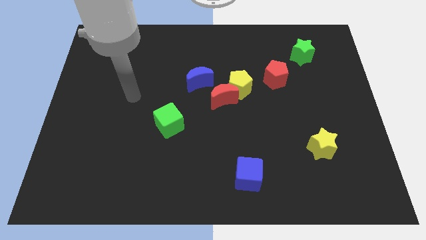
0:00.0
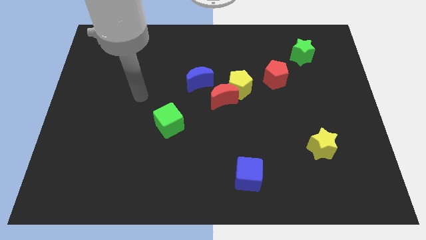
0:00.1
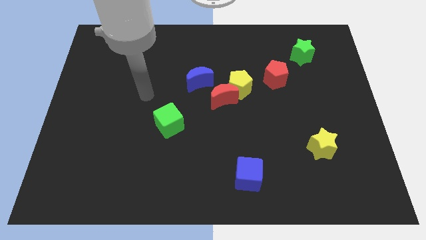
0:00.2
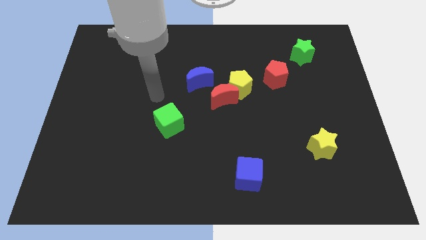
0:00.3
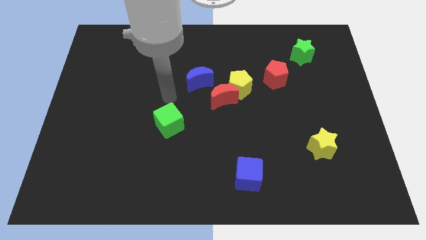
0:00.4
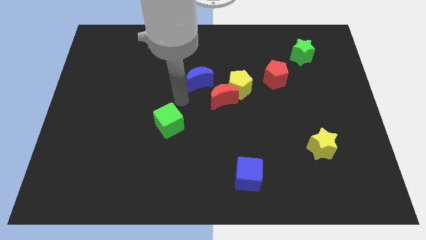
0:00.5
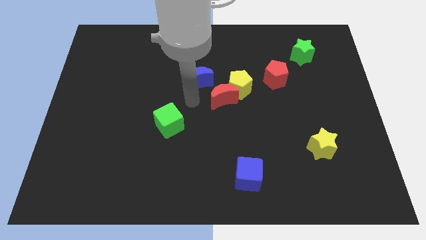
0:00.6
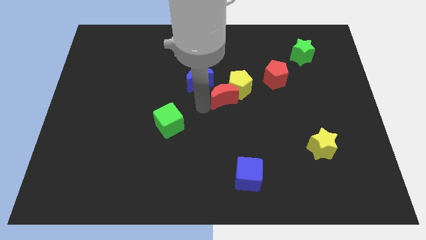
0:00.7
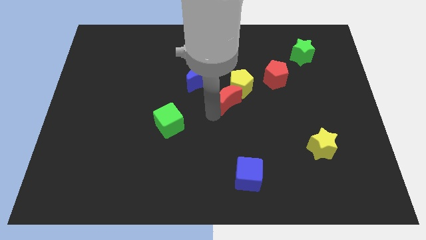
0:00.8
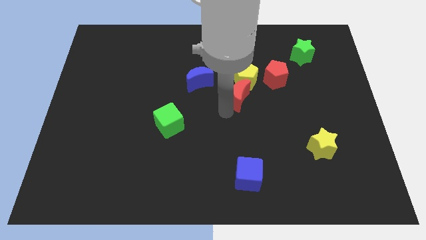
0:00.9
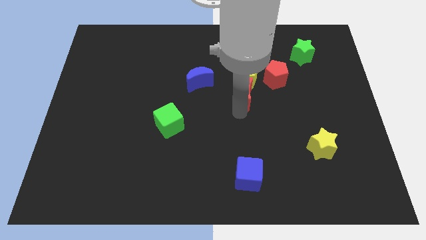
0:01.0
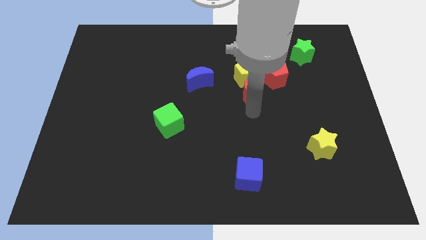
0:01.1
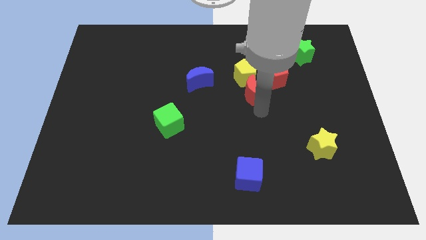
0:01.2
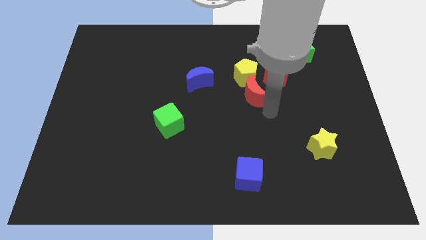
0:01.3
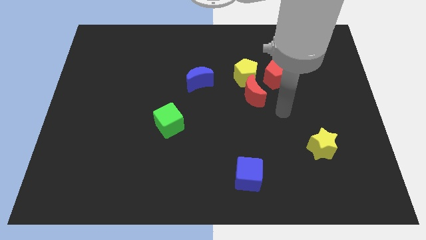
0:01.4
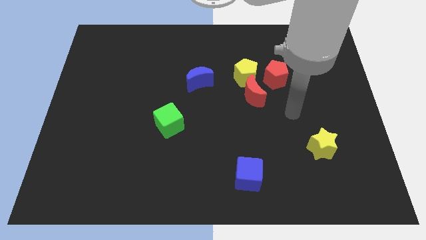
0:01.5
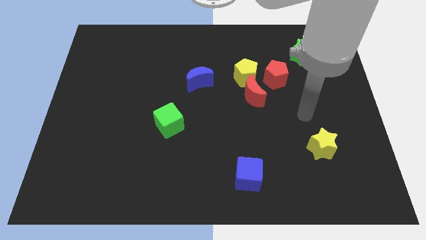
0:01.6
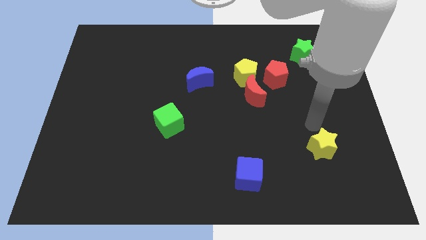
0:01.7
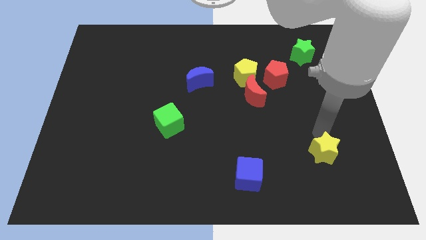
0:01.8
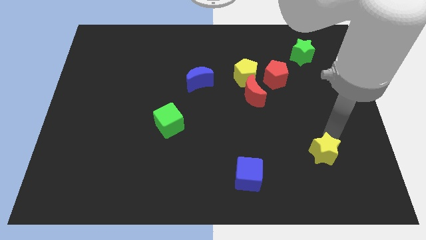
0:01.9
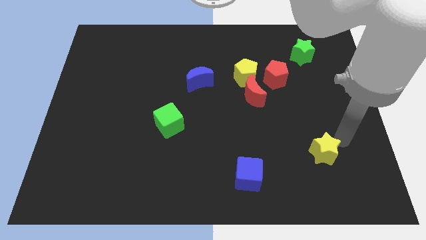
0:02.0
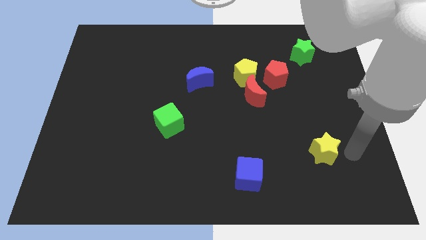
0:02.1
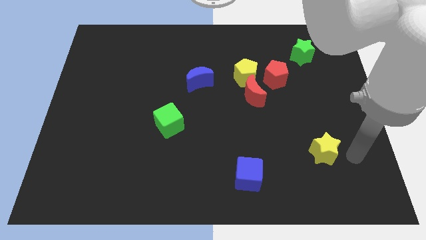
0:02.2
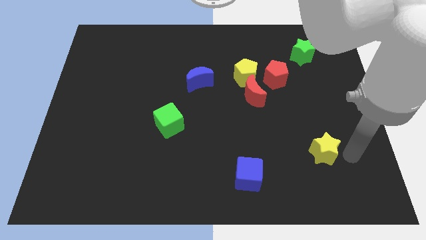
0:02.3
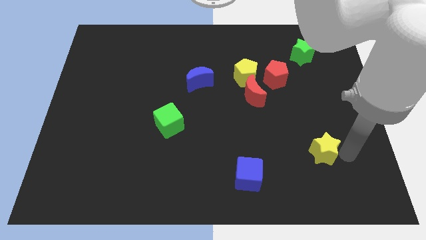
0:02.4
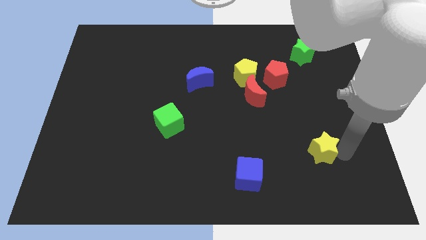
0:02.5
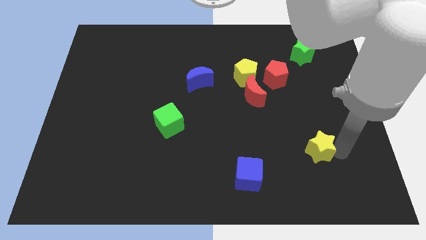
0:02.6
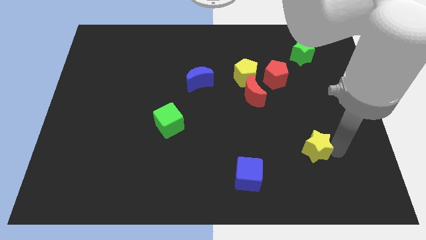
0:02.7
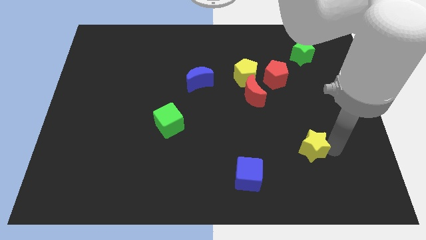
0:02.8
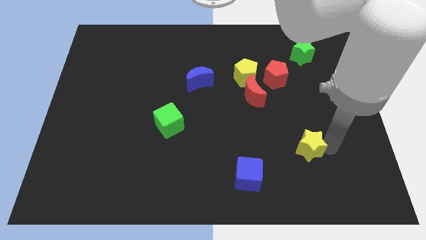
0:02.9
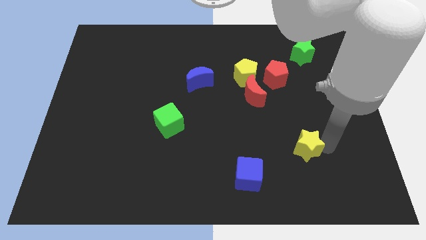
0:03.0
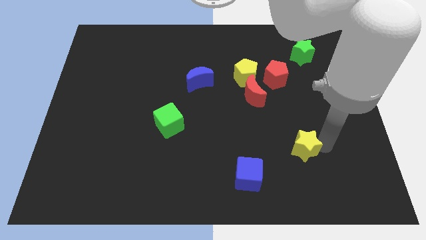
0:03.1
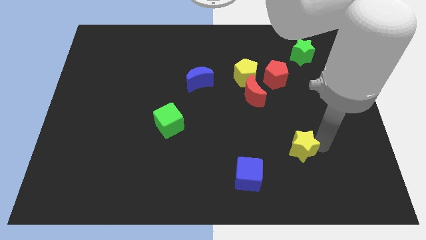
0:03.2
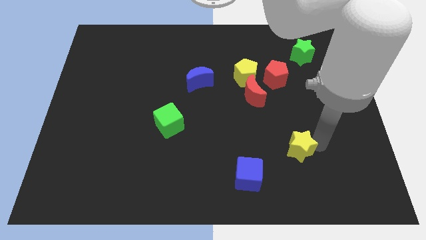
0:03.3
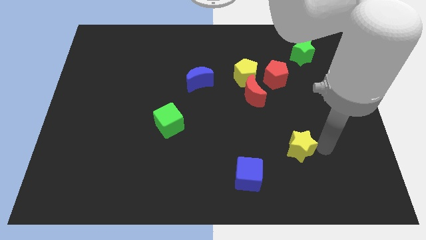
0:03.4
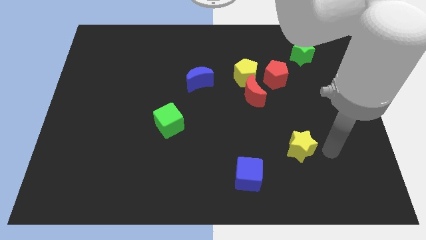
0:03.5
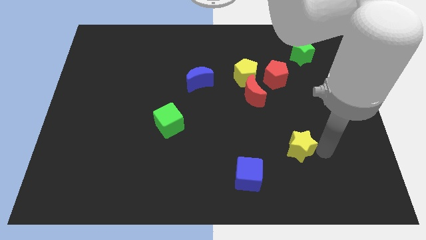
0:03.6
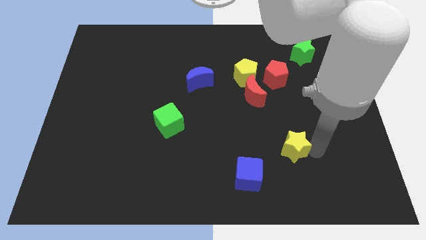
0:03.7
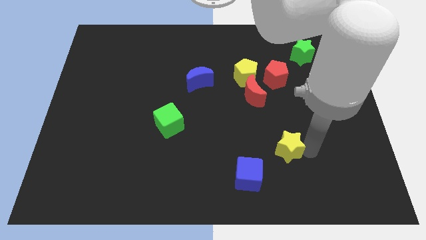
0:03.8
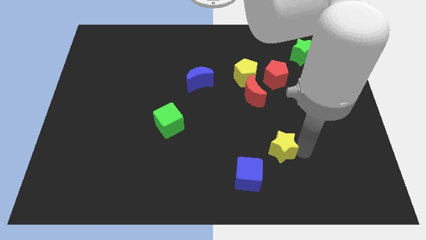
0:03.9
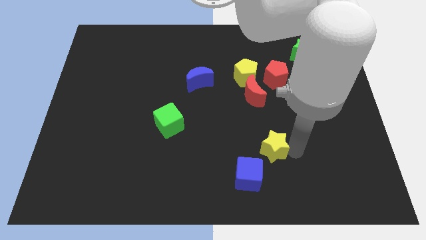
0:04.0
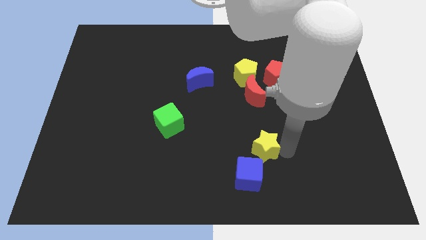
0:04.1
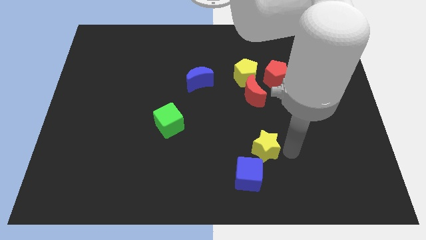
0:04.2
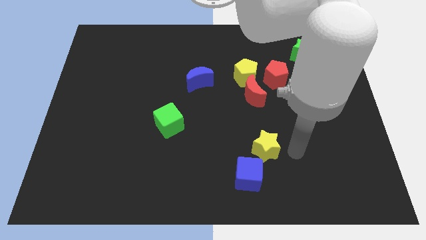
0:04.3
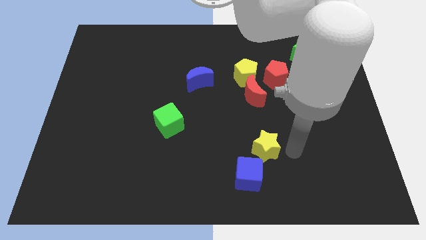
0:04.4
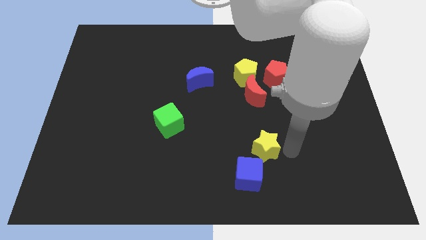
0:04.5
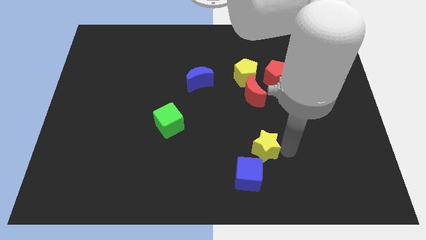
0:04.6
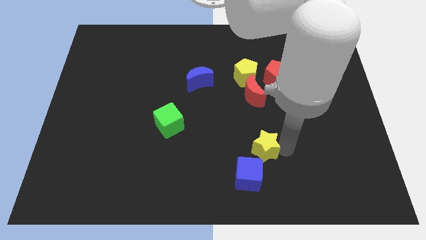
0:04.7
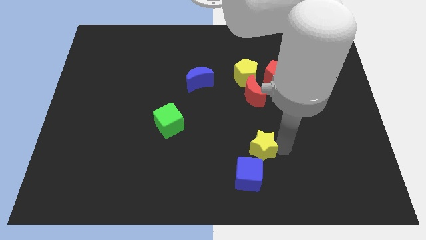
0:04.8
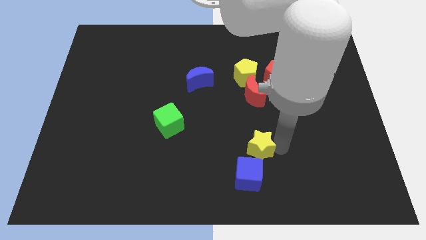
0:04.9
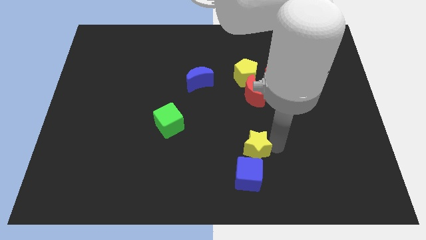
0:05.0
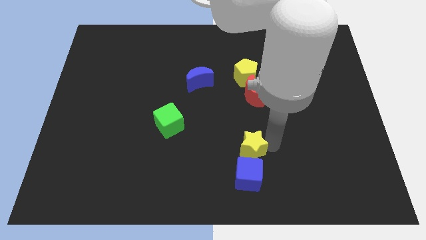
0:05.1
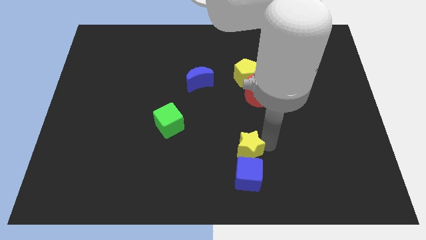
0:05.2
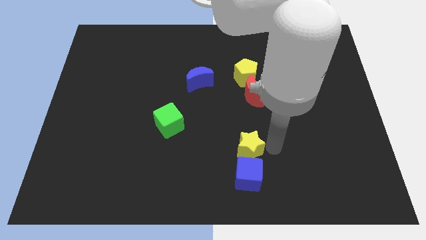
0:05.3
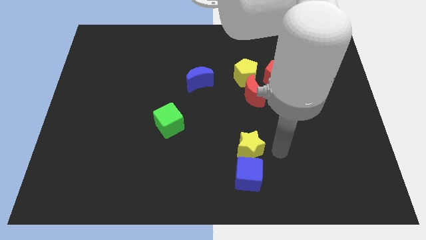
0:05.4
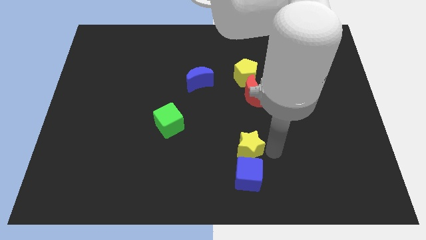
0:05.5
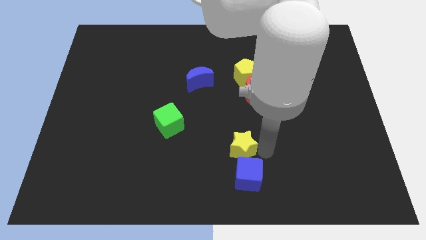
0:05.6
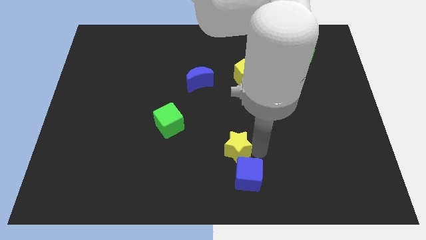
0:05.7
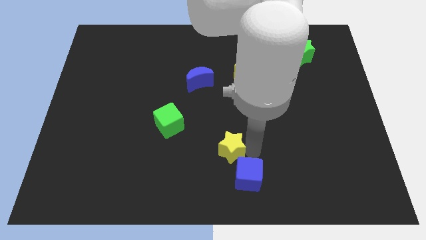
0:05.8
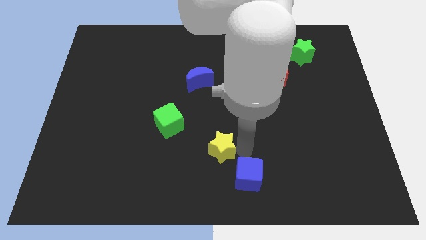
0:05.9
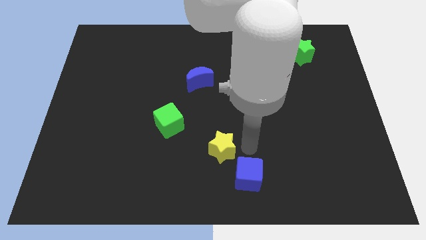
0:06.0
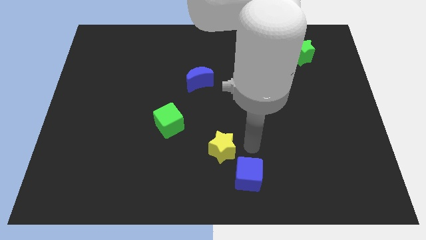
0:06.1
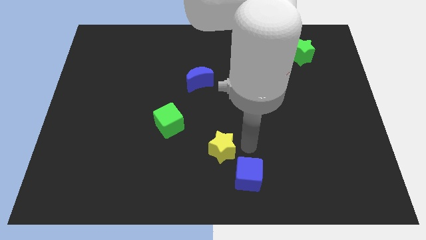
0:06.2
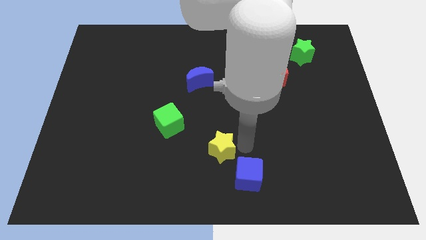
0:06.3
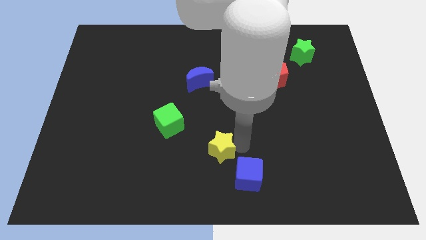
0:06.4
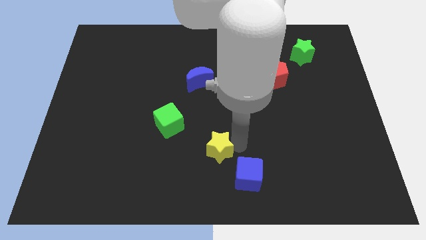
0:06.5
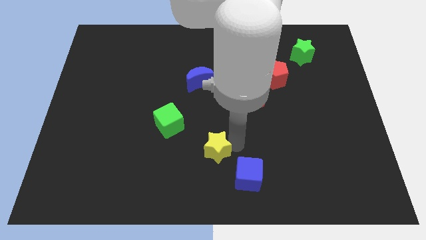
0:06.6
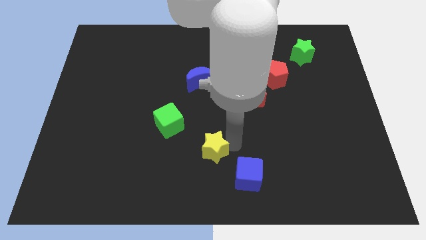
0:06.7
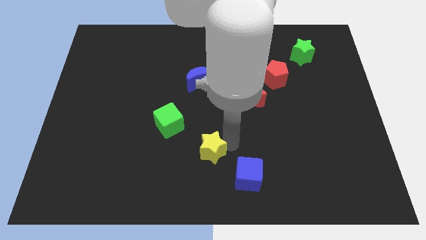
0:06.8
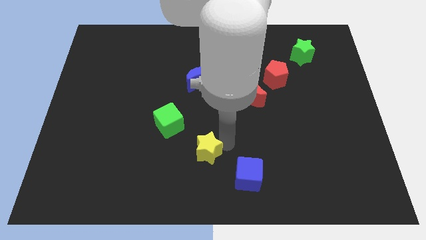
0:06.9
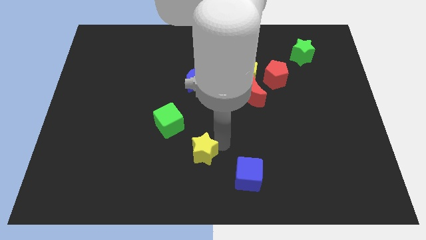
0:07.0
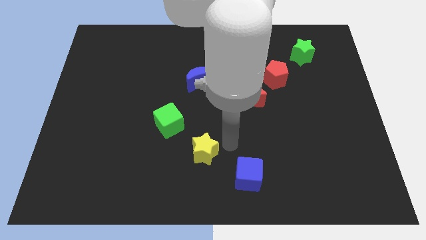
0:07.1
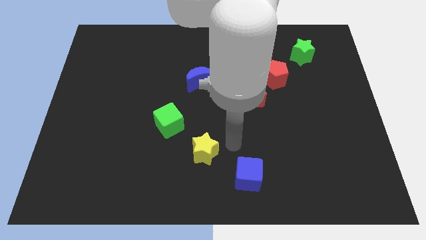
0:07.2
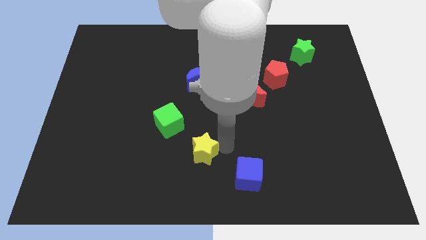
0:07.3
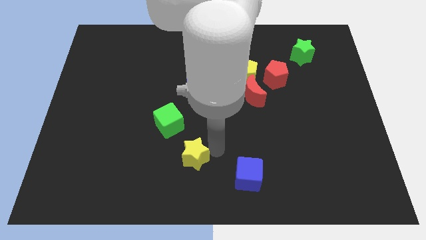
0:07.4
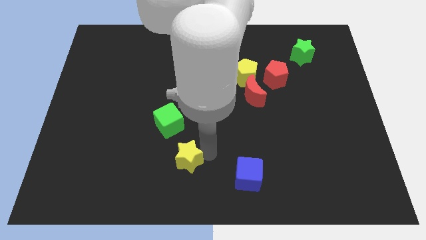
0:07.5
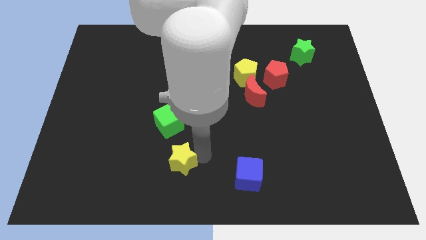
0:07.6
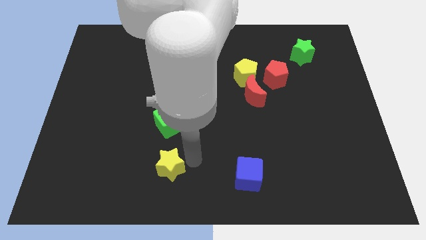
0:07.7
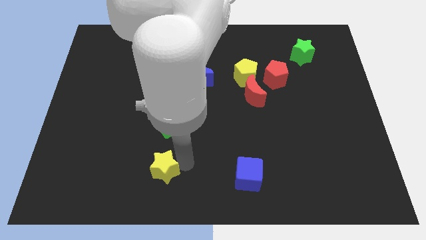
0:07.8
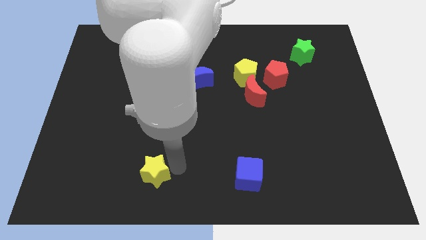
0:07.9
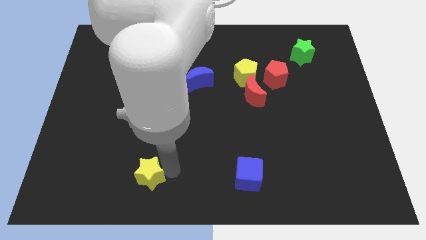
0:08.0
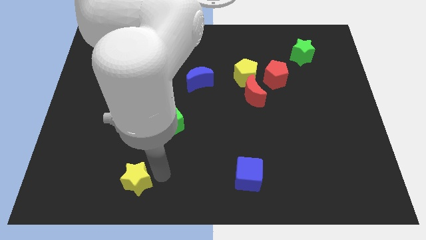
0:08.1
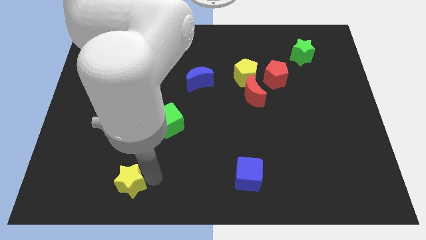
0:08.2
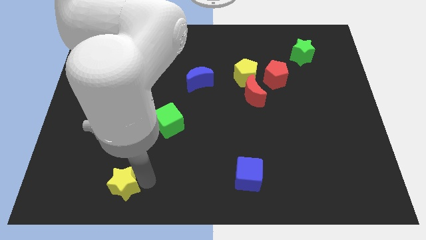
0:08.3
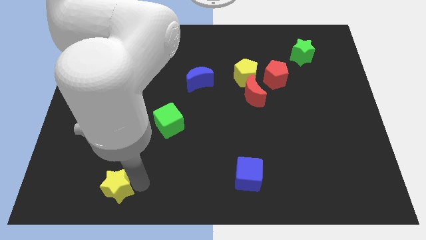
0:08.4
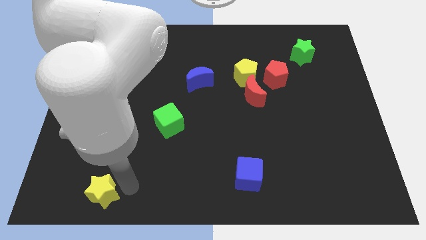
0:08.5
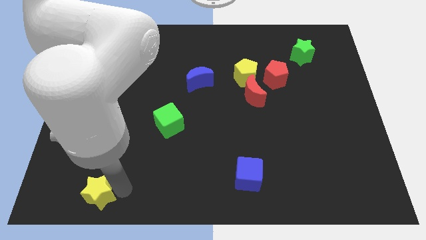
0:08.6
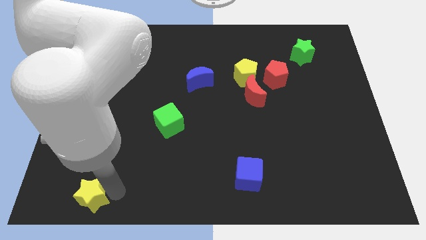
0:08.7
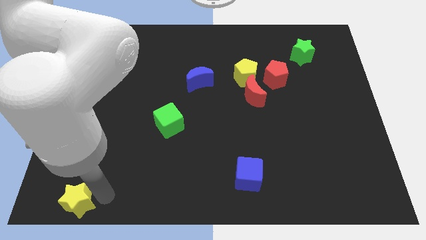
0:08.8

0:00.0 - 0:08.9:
move the yellow star to the lower left corner
